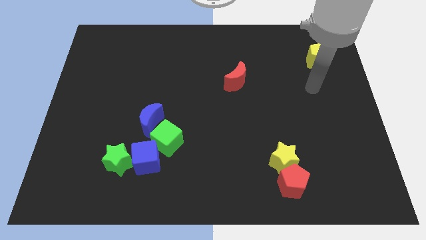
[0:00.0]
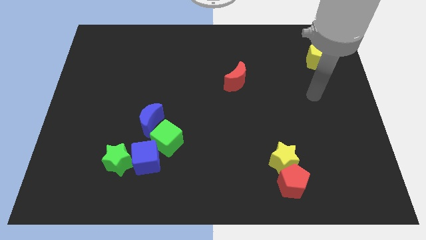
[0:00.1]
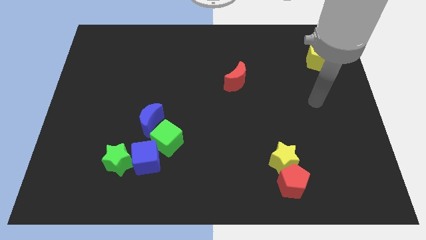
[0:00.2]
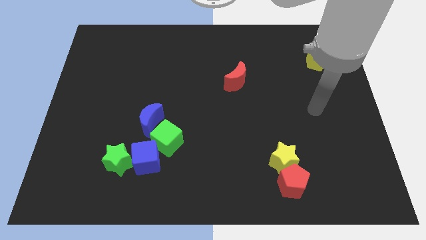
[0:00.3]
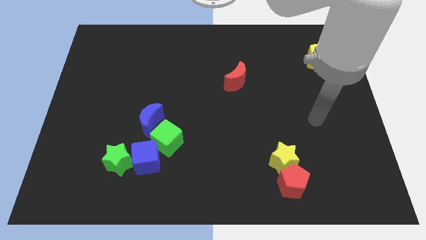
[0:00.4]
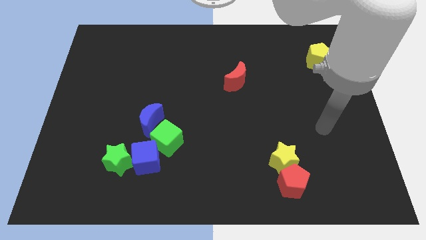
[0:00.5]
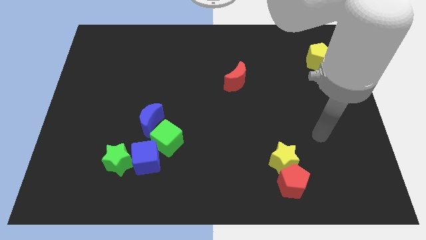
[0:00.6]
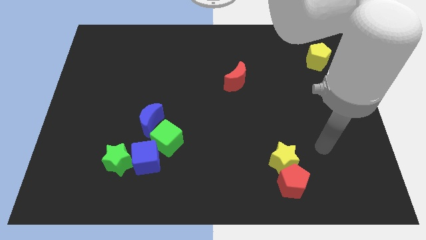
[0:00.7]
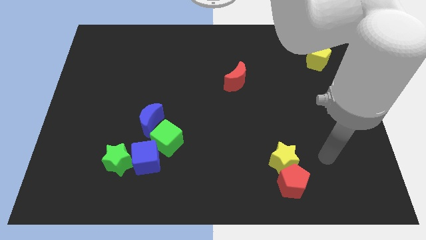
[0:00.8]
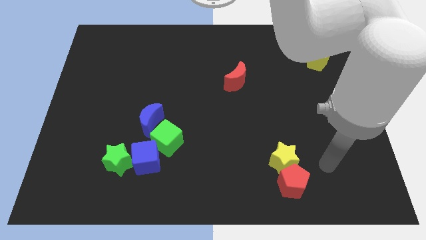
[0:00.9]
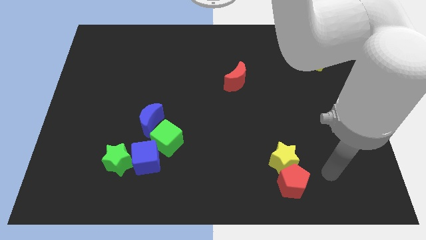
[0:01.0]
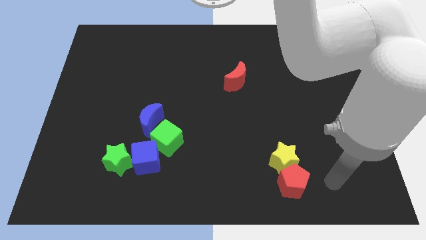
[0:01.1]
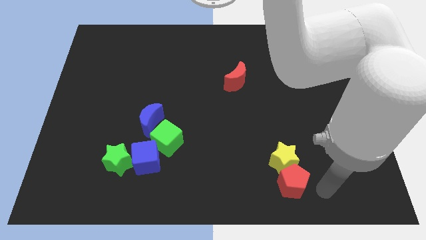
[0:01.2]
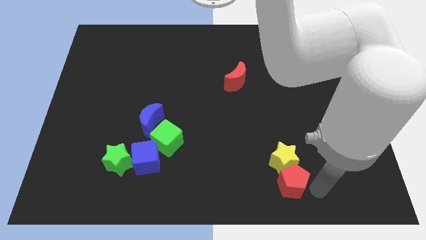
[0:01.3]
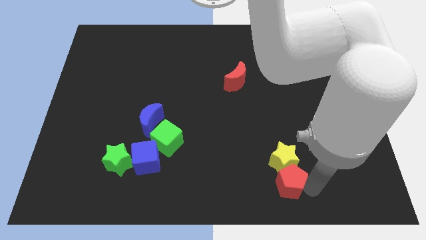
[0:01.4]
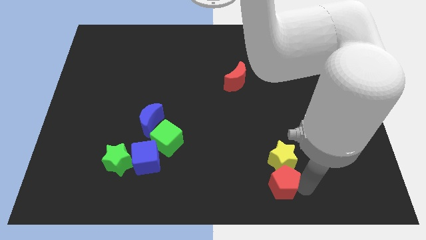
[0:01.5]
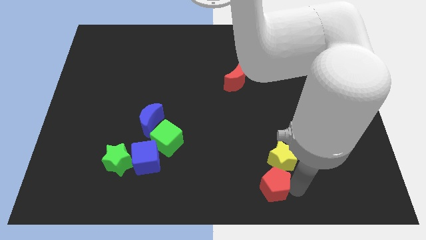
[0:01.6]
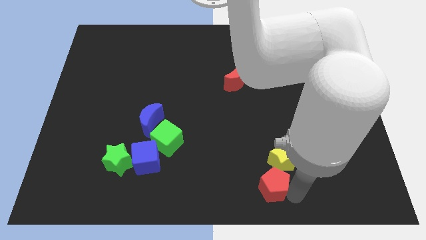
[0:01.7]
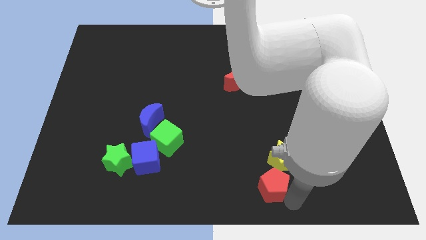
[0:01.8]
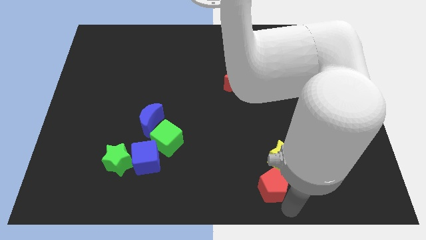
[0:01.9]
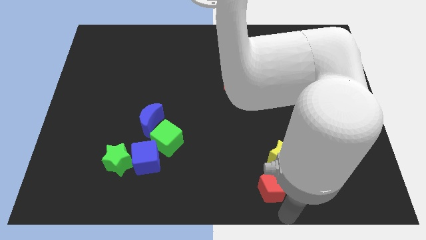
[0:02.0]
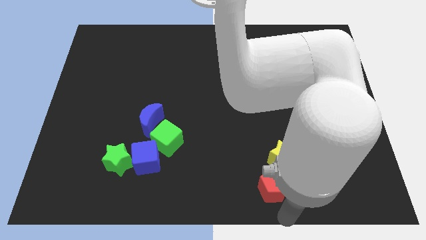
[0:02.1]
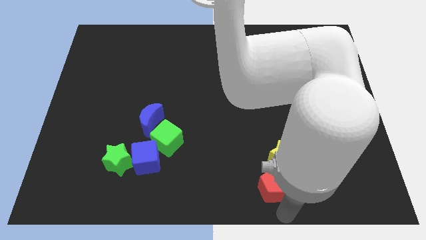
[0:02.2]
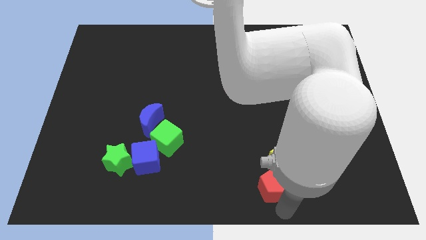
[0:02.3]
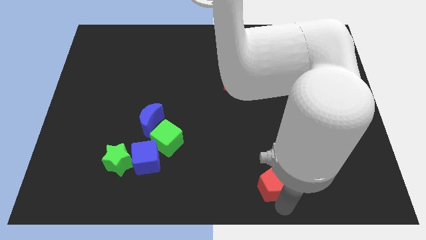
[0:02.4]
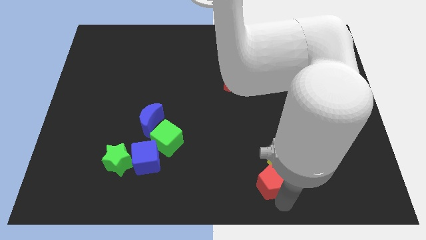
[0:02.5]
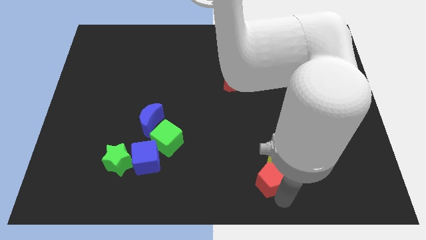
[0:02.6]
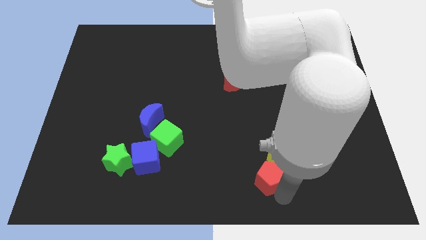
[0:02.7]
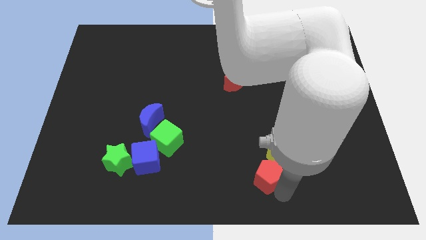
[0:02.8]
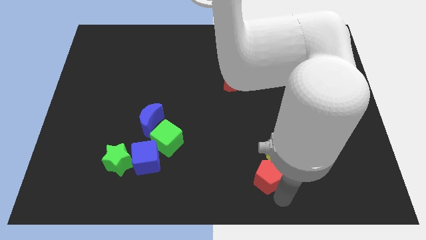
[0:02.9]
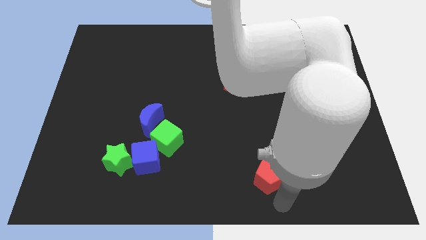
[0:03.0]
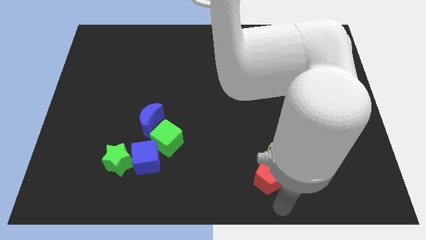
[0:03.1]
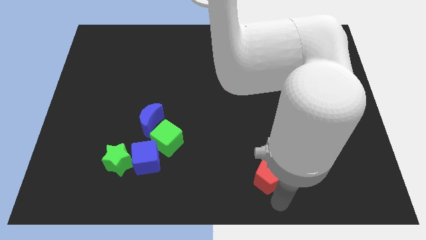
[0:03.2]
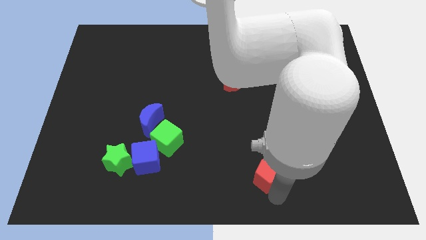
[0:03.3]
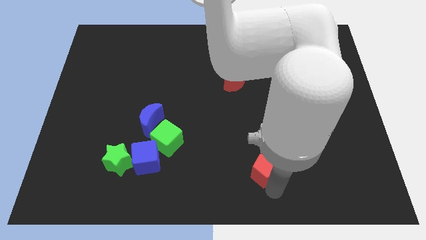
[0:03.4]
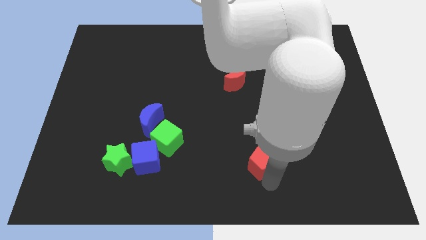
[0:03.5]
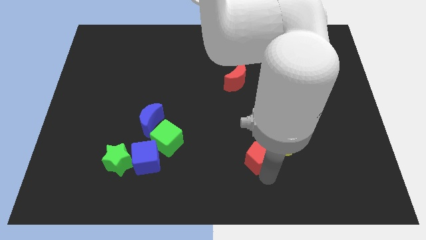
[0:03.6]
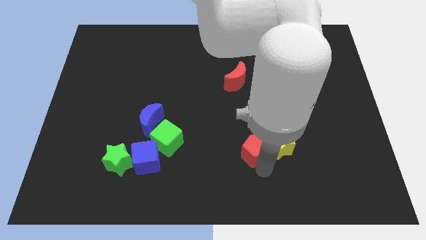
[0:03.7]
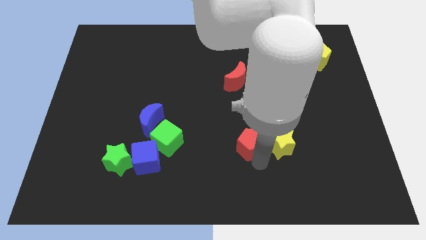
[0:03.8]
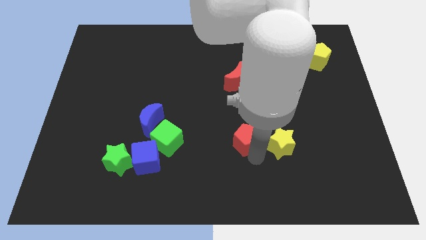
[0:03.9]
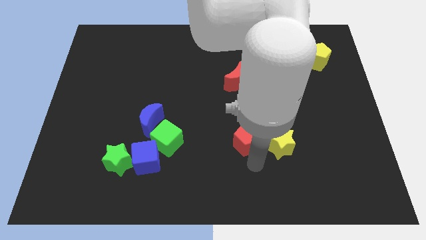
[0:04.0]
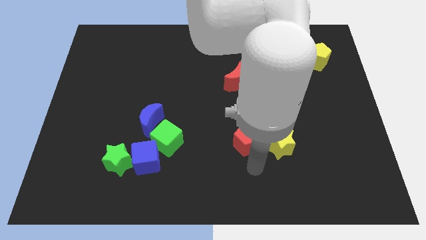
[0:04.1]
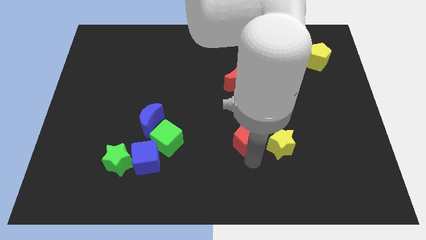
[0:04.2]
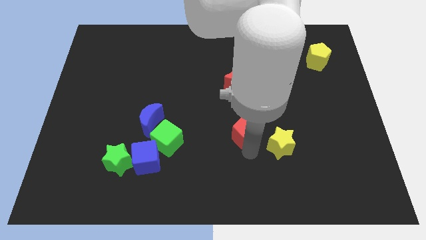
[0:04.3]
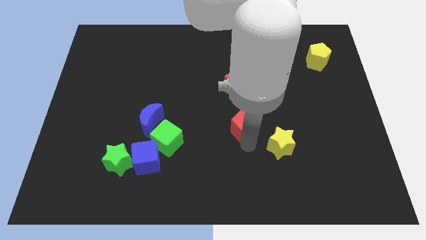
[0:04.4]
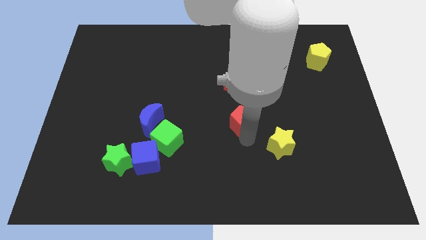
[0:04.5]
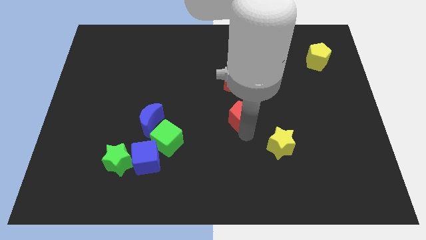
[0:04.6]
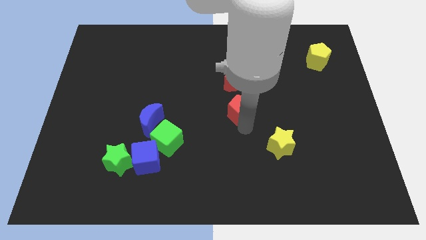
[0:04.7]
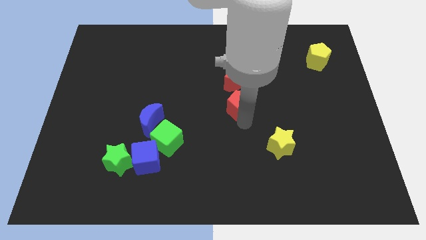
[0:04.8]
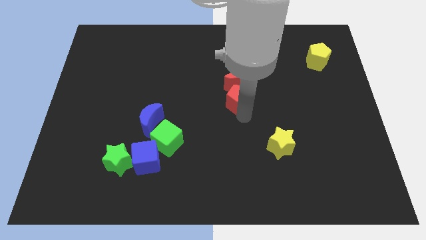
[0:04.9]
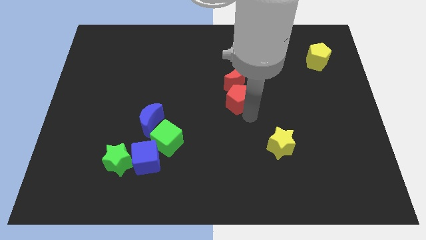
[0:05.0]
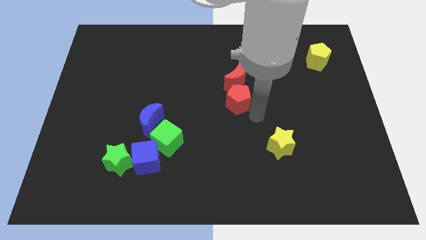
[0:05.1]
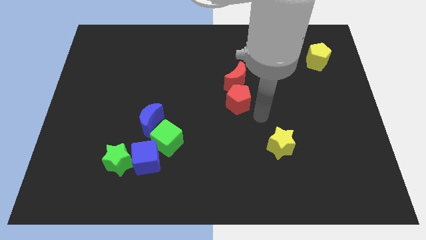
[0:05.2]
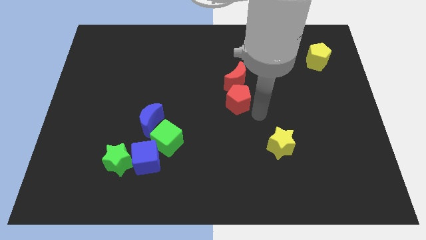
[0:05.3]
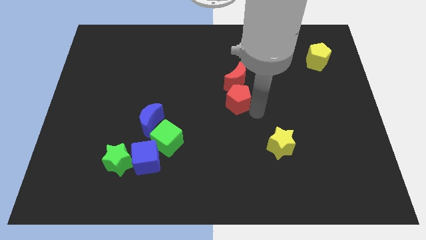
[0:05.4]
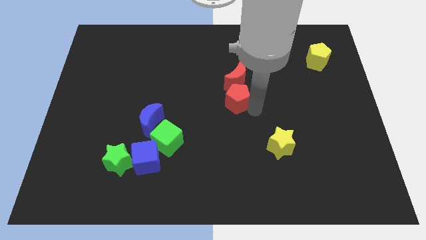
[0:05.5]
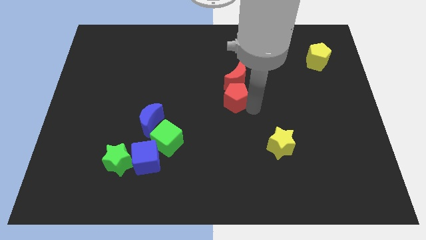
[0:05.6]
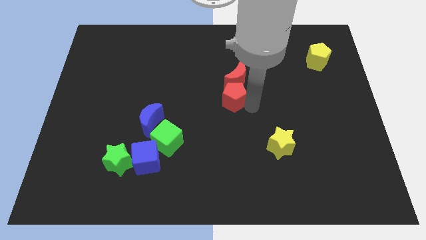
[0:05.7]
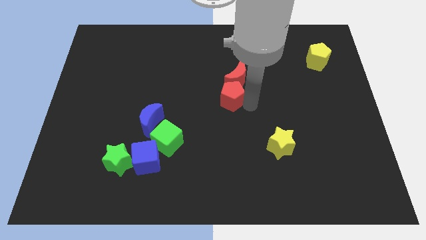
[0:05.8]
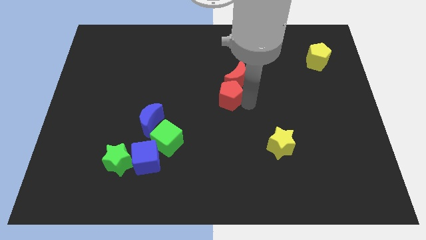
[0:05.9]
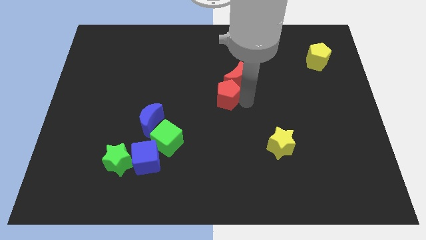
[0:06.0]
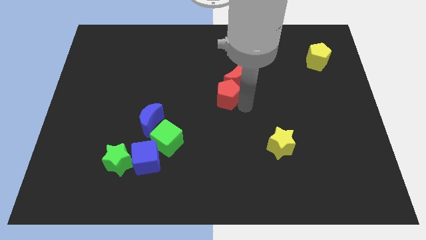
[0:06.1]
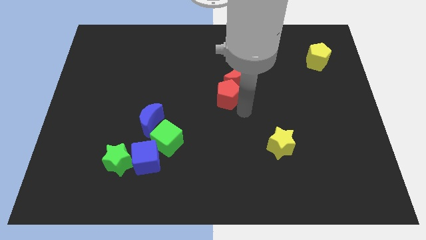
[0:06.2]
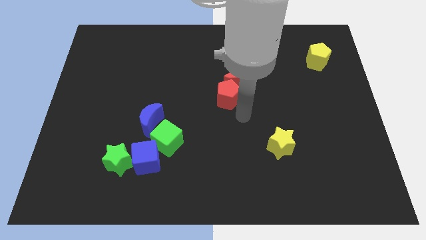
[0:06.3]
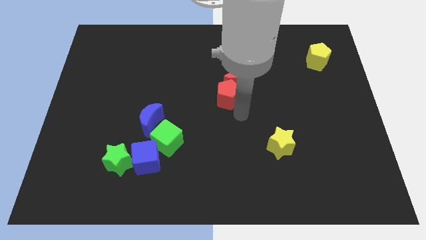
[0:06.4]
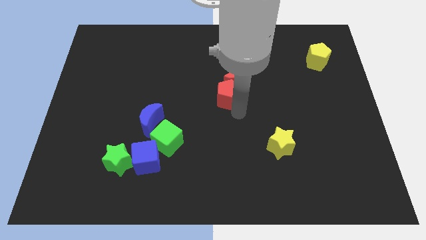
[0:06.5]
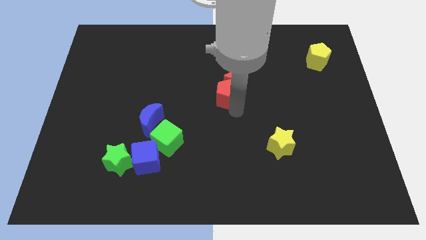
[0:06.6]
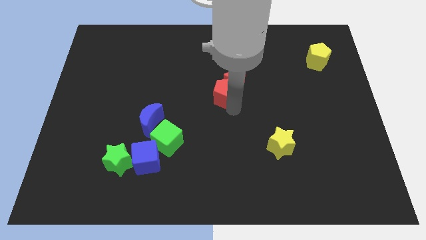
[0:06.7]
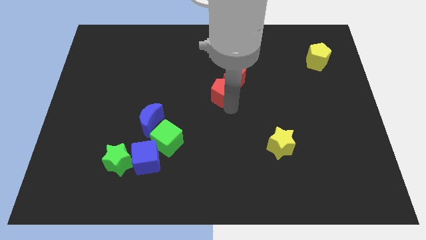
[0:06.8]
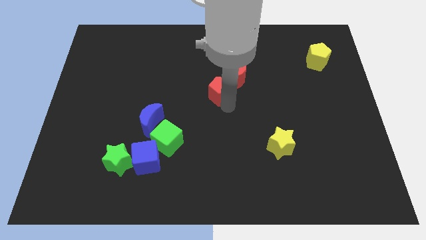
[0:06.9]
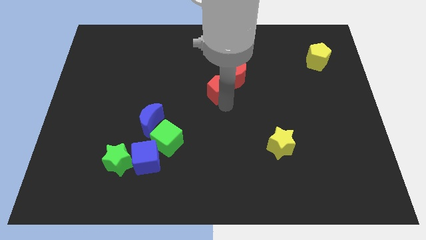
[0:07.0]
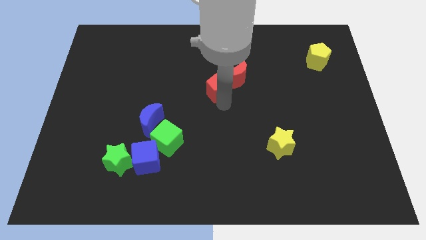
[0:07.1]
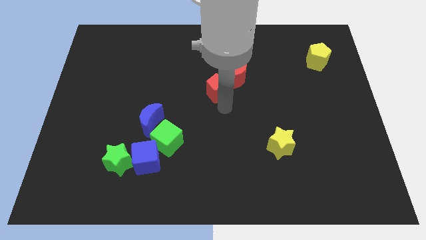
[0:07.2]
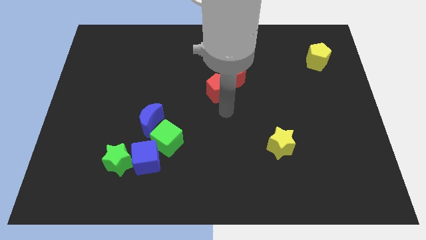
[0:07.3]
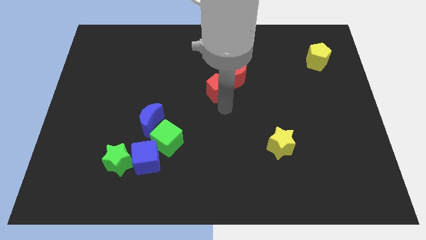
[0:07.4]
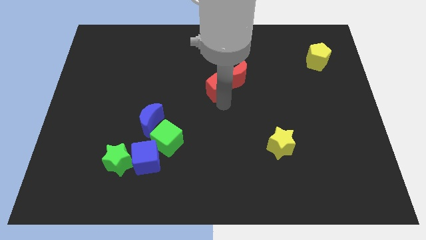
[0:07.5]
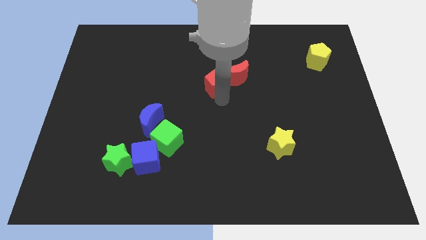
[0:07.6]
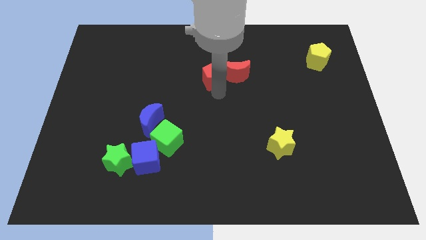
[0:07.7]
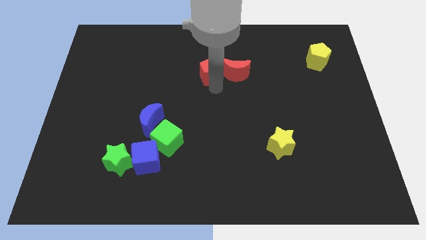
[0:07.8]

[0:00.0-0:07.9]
move the red pentagon to the top left side of the red moon
